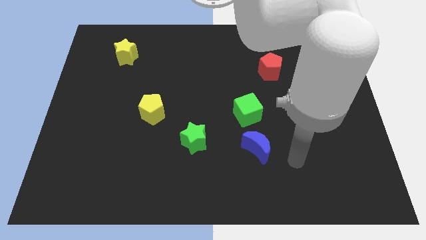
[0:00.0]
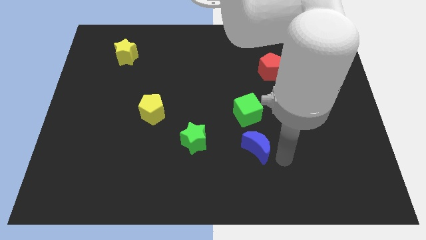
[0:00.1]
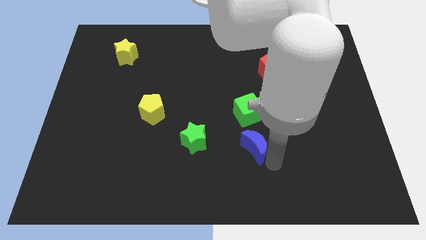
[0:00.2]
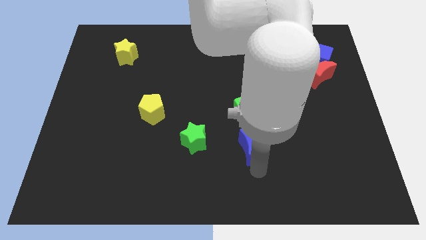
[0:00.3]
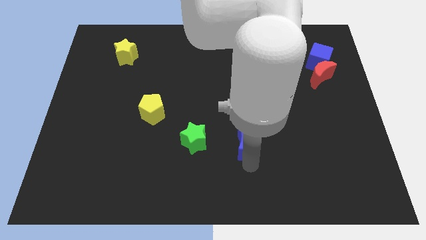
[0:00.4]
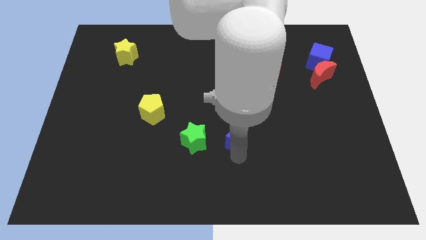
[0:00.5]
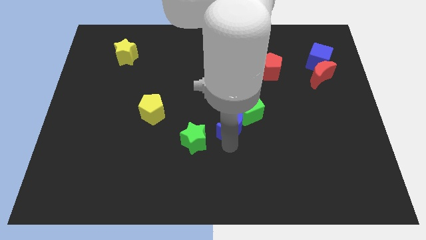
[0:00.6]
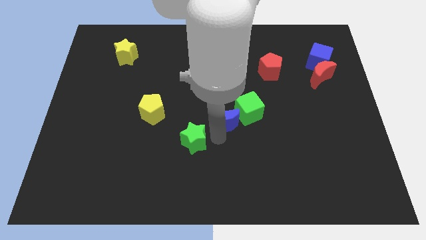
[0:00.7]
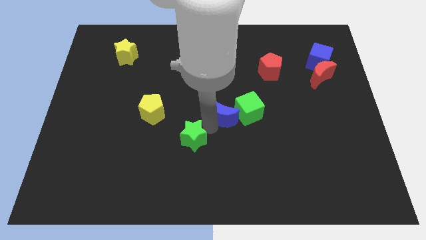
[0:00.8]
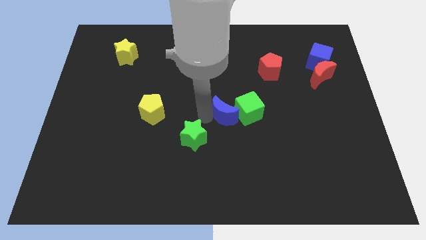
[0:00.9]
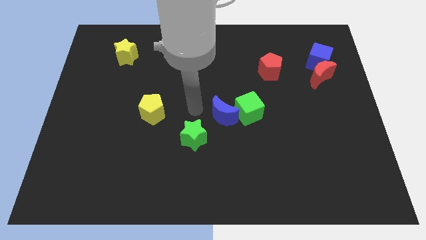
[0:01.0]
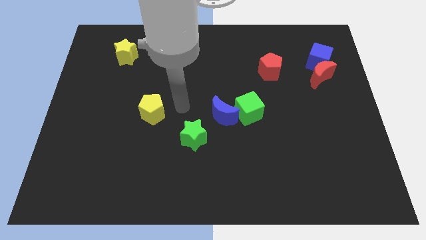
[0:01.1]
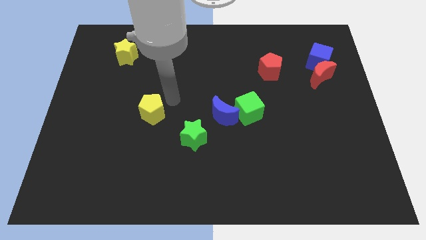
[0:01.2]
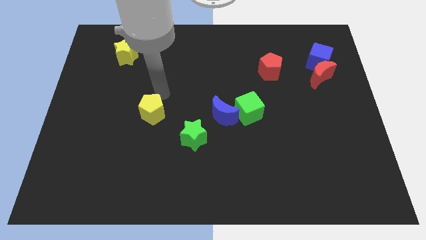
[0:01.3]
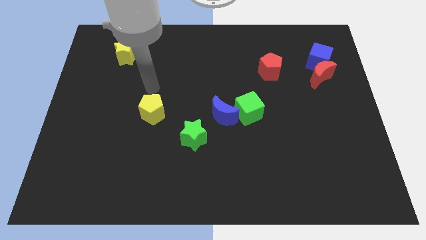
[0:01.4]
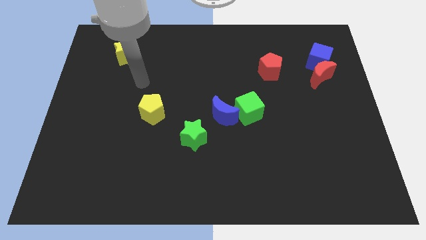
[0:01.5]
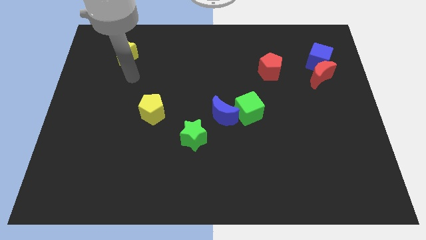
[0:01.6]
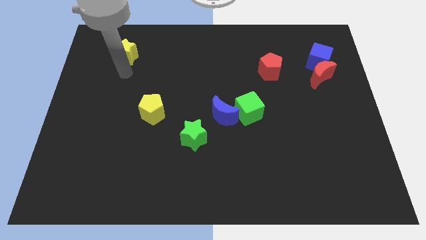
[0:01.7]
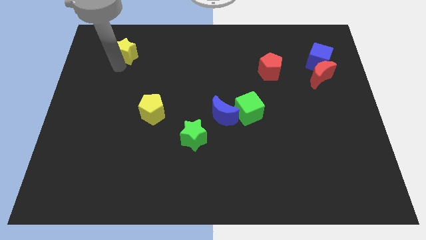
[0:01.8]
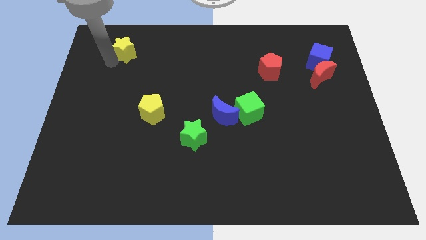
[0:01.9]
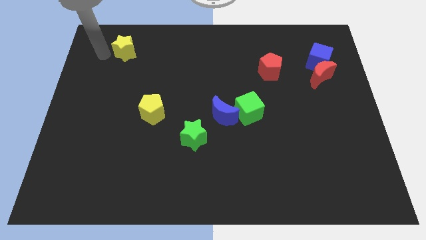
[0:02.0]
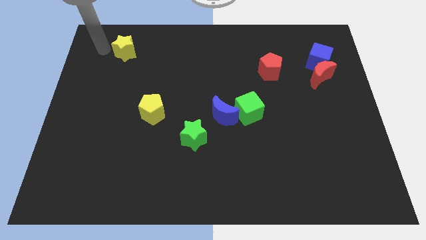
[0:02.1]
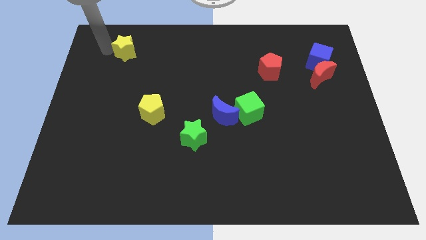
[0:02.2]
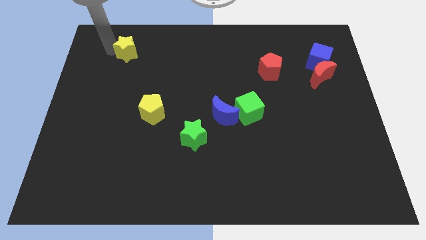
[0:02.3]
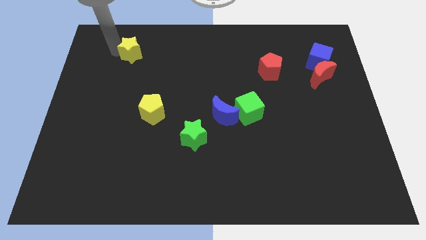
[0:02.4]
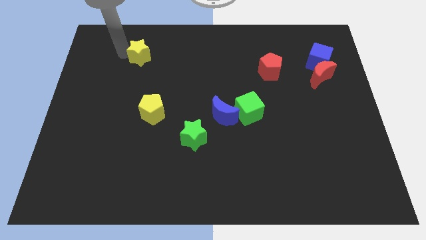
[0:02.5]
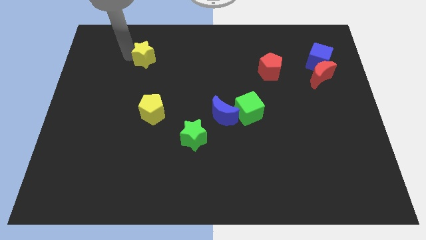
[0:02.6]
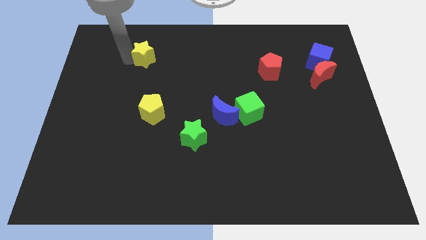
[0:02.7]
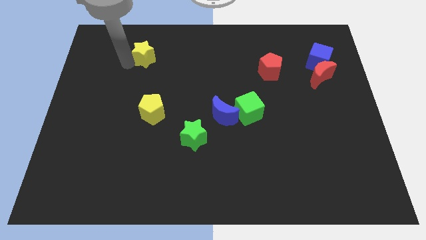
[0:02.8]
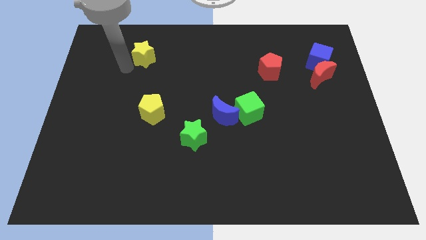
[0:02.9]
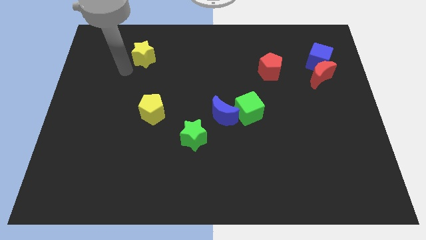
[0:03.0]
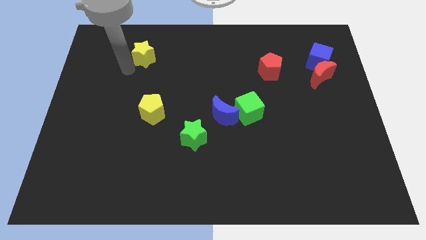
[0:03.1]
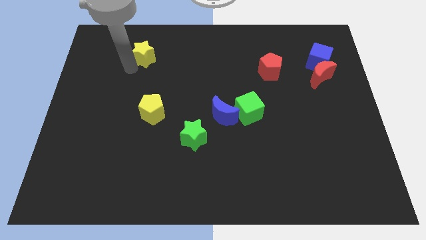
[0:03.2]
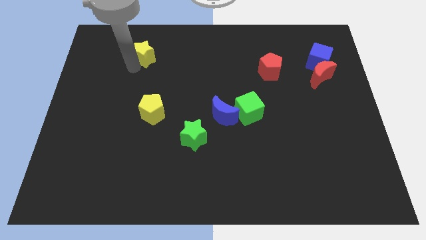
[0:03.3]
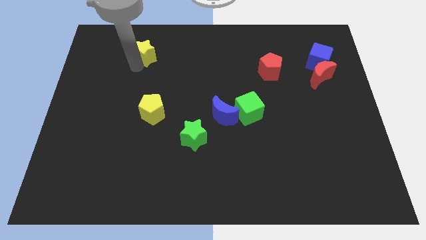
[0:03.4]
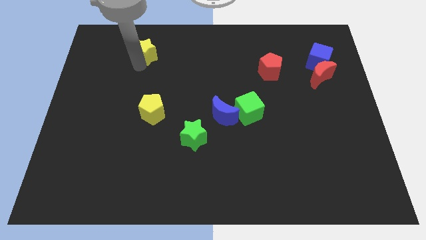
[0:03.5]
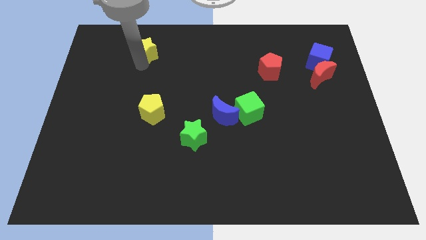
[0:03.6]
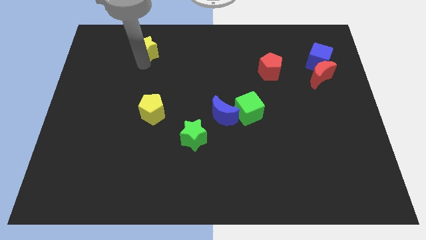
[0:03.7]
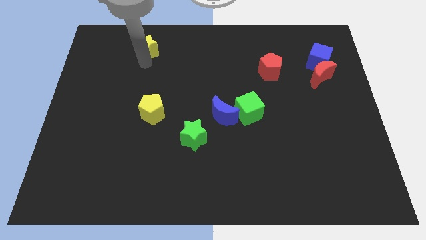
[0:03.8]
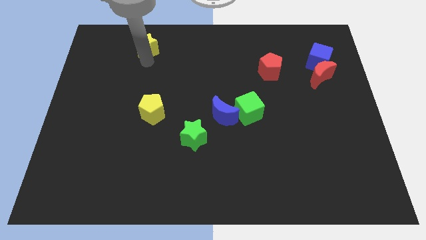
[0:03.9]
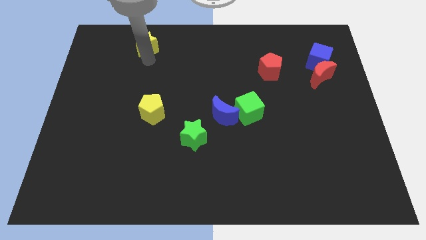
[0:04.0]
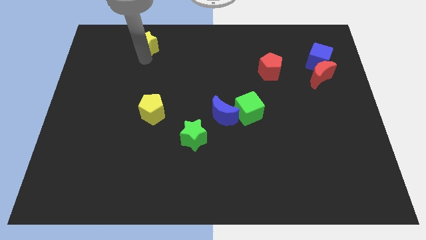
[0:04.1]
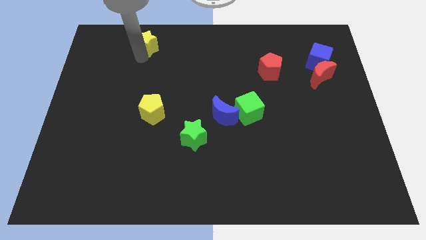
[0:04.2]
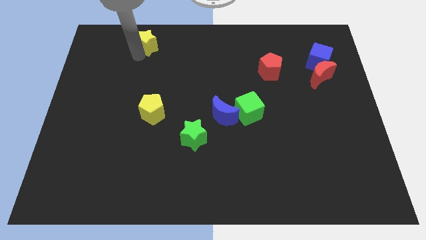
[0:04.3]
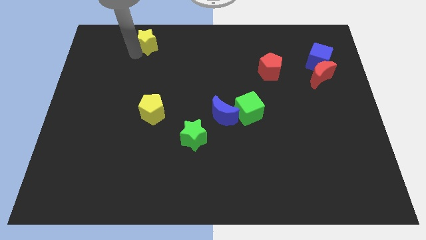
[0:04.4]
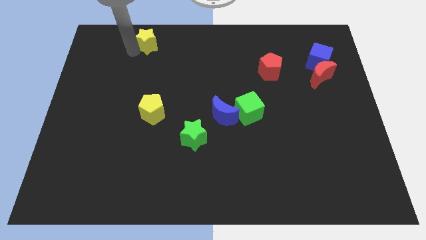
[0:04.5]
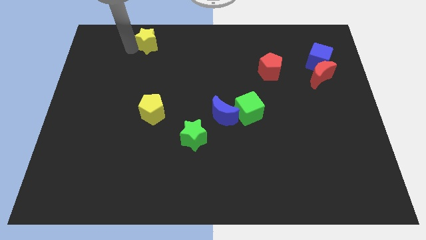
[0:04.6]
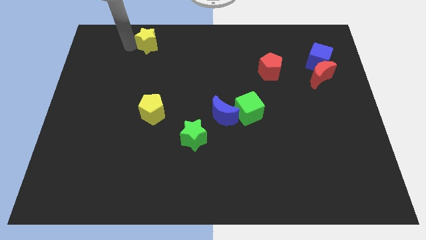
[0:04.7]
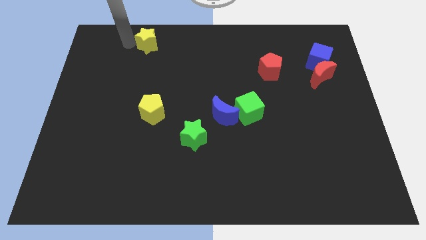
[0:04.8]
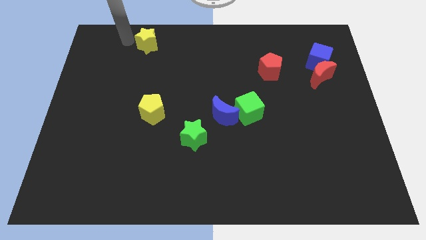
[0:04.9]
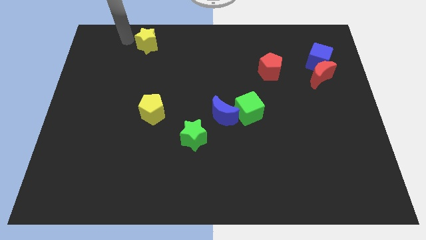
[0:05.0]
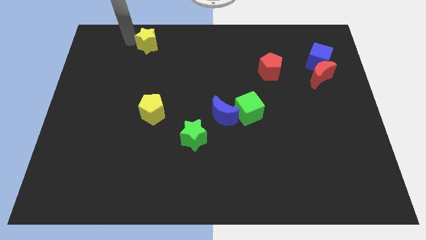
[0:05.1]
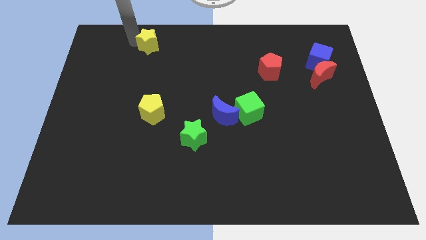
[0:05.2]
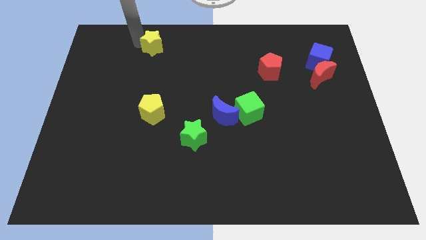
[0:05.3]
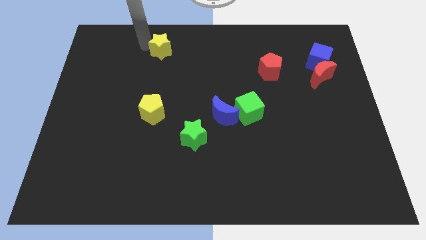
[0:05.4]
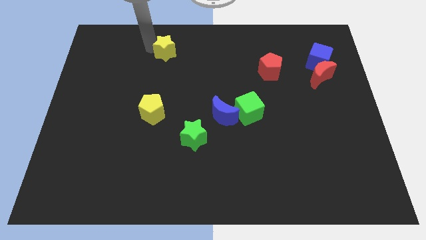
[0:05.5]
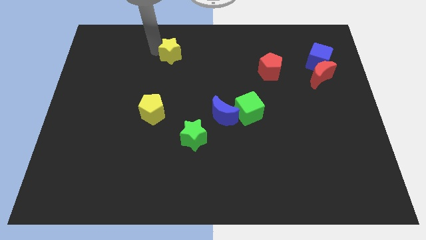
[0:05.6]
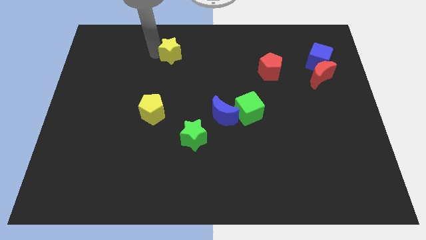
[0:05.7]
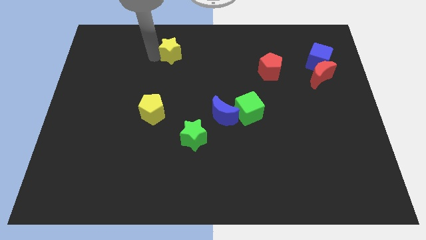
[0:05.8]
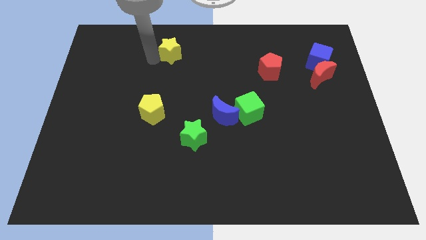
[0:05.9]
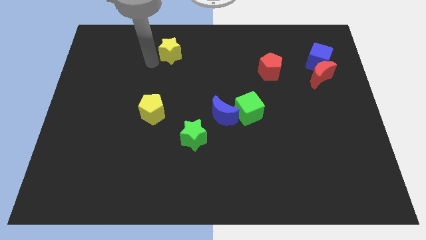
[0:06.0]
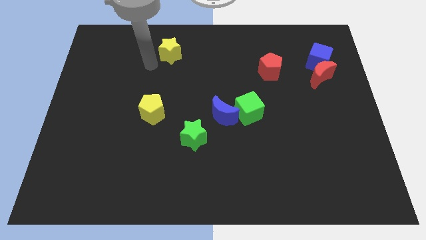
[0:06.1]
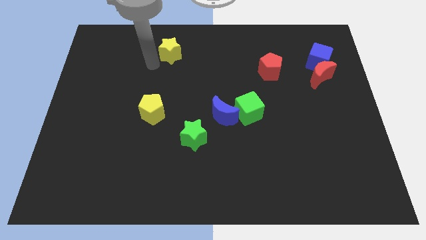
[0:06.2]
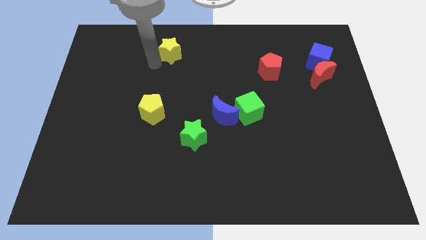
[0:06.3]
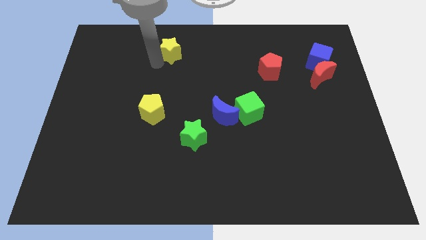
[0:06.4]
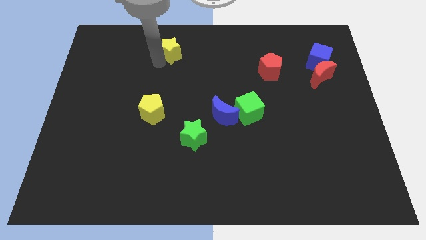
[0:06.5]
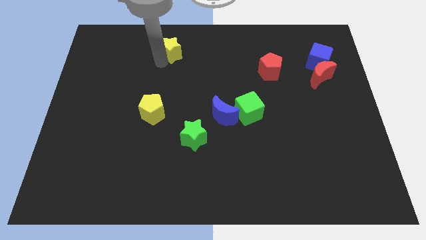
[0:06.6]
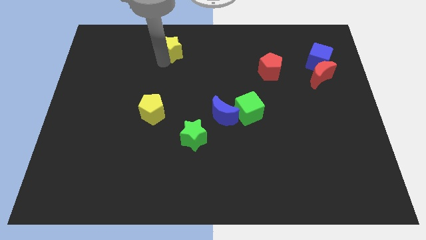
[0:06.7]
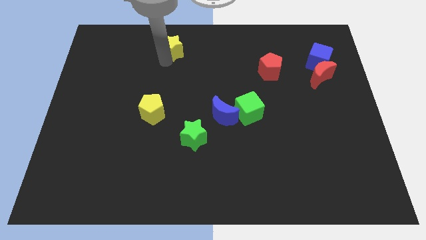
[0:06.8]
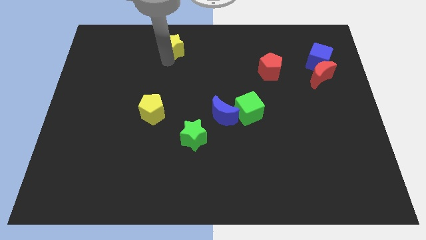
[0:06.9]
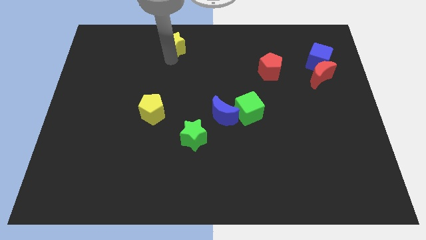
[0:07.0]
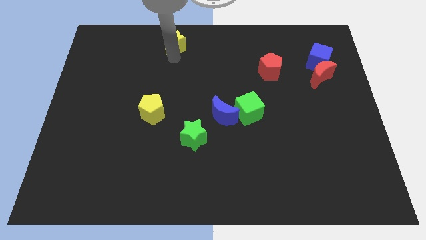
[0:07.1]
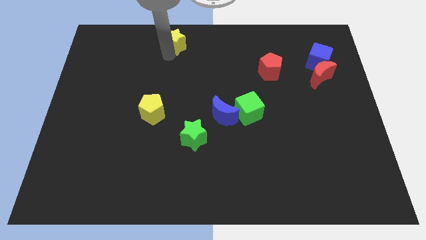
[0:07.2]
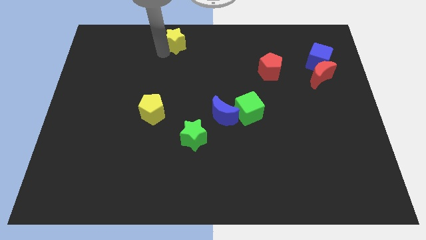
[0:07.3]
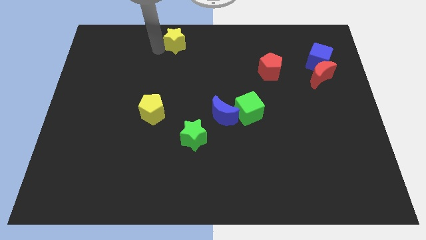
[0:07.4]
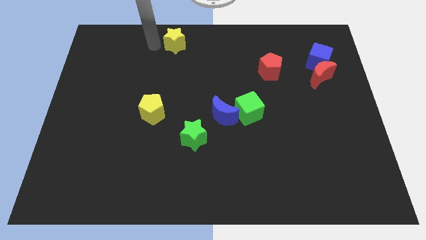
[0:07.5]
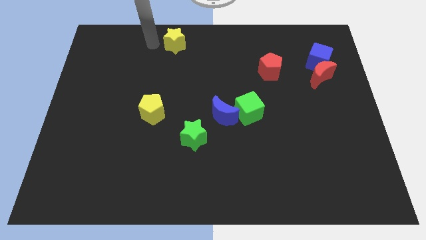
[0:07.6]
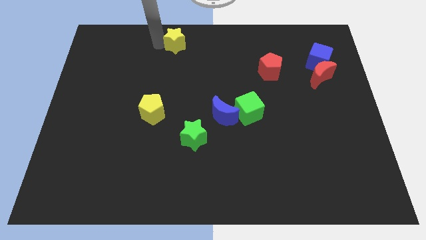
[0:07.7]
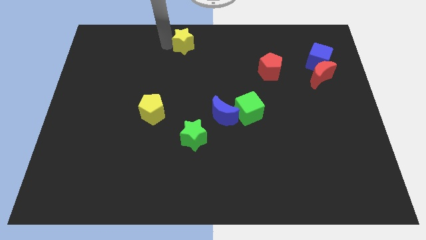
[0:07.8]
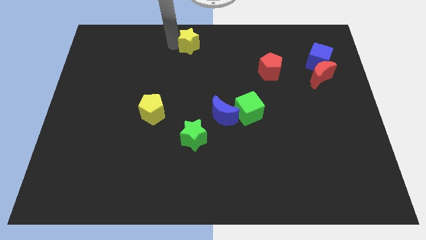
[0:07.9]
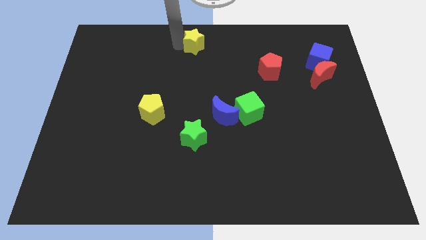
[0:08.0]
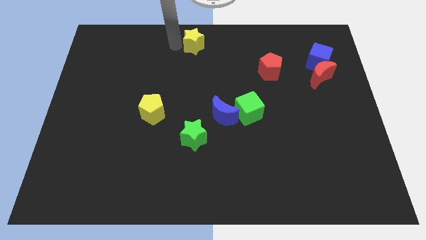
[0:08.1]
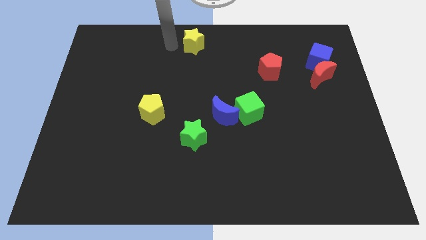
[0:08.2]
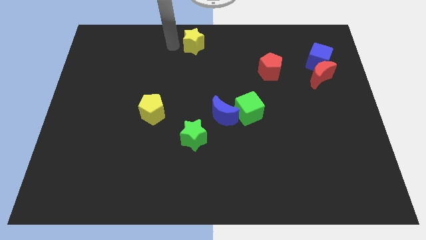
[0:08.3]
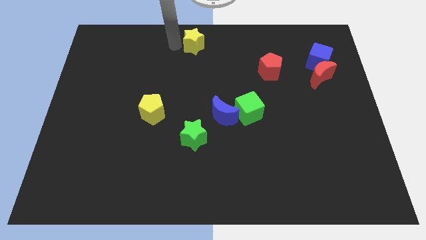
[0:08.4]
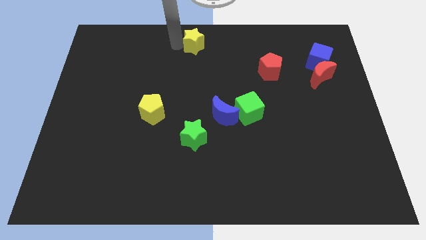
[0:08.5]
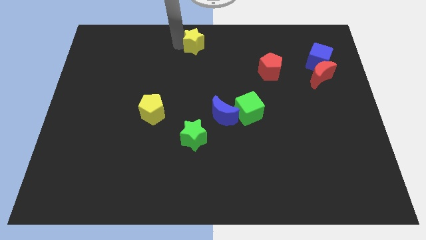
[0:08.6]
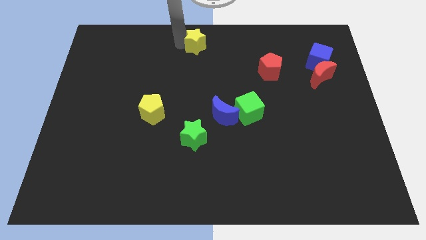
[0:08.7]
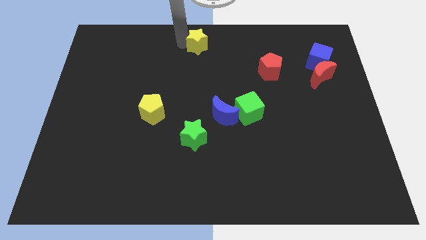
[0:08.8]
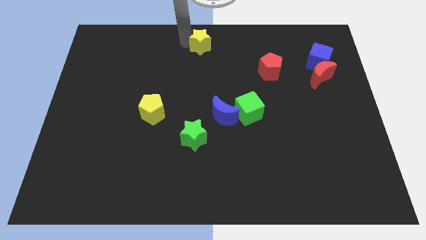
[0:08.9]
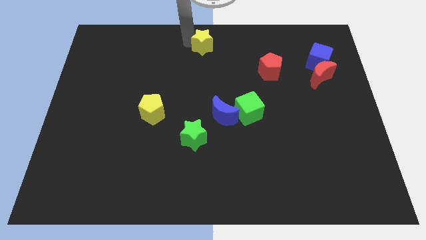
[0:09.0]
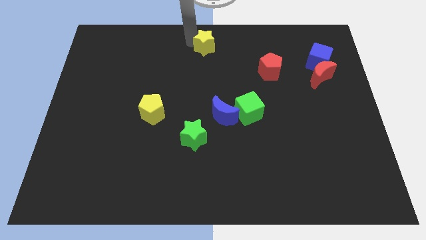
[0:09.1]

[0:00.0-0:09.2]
slide the yellow star right
